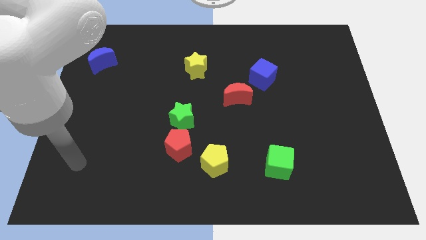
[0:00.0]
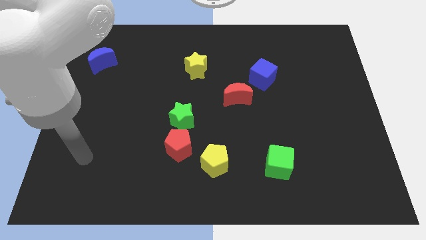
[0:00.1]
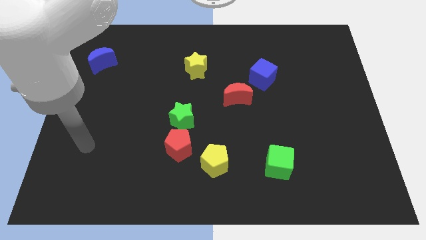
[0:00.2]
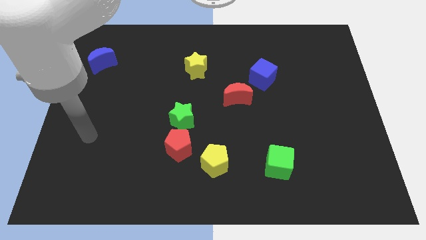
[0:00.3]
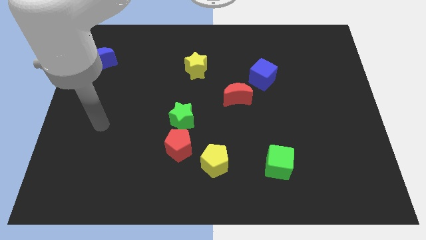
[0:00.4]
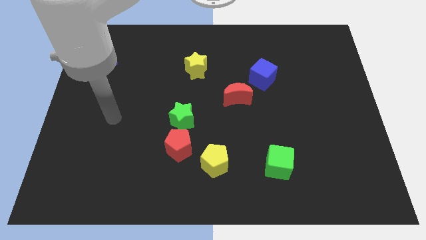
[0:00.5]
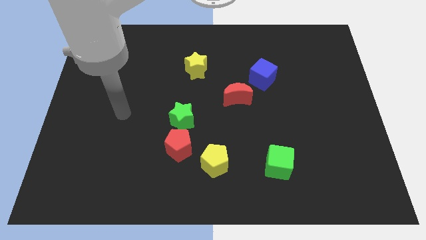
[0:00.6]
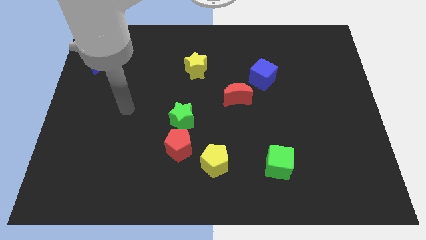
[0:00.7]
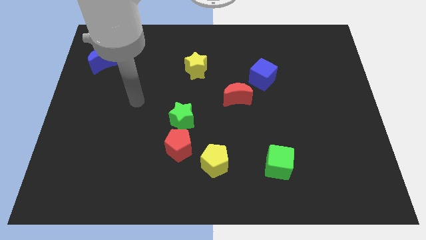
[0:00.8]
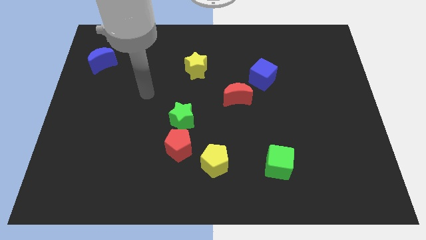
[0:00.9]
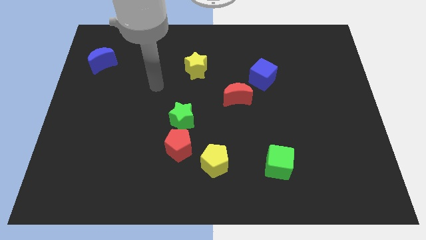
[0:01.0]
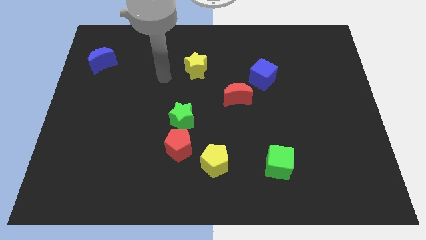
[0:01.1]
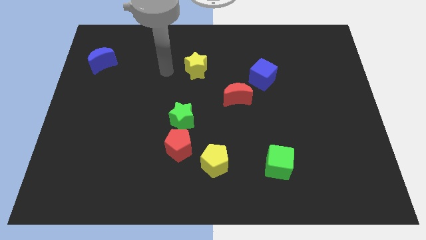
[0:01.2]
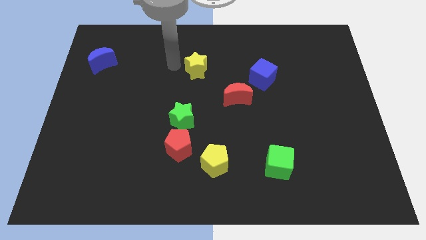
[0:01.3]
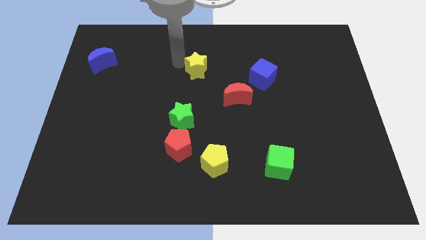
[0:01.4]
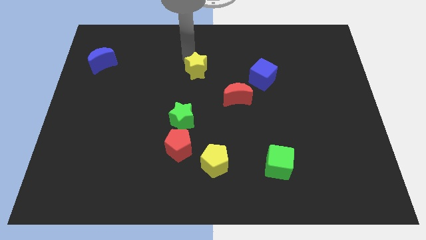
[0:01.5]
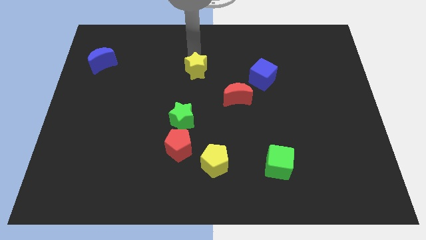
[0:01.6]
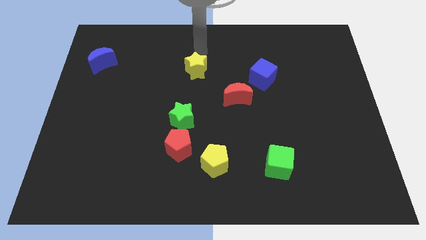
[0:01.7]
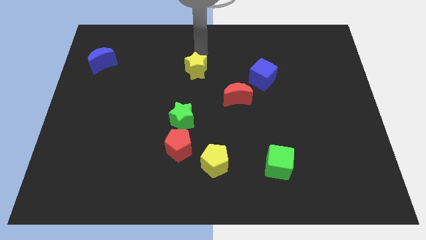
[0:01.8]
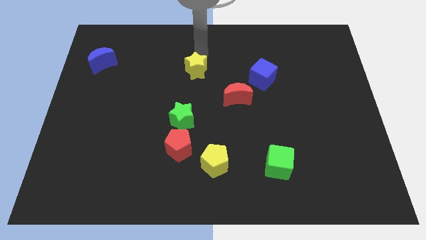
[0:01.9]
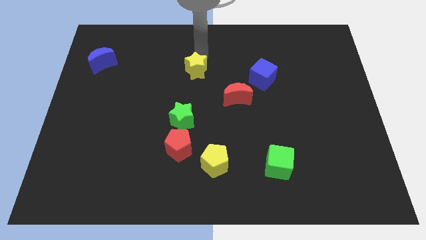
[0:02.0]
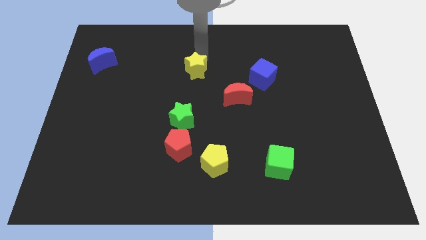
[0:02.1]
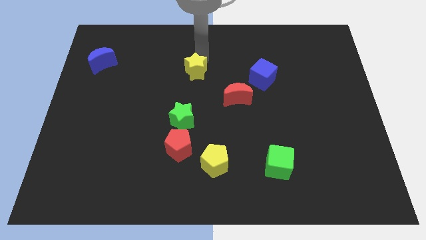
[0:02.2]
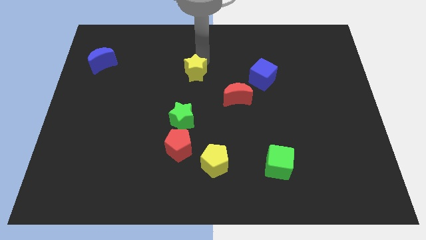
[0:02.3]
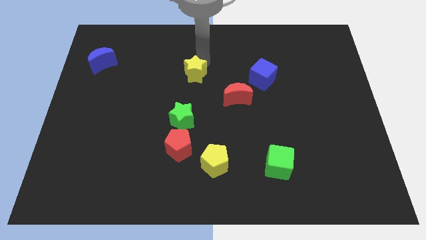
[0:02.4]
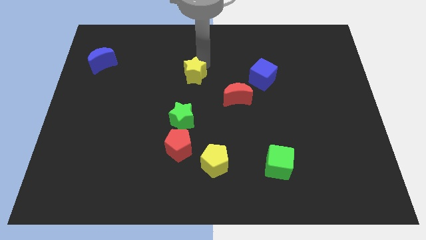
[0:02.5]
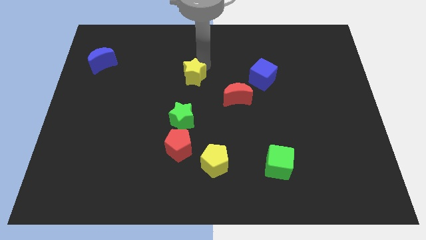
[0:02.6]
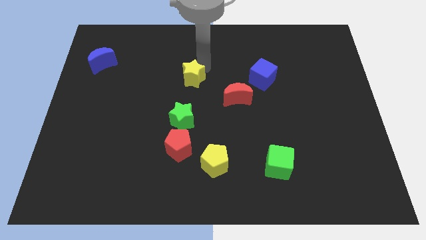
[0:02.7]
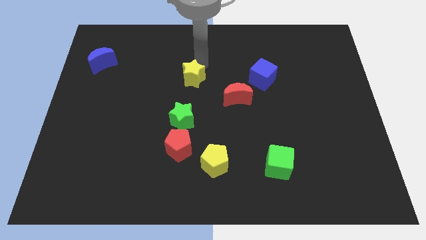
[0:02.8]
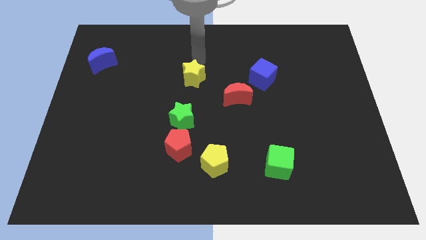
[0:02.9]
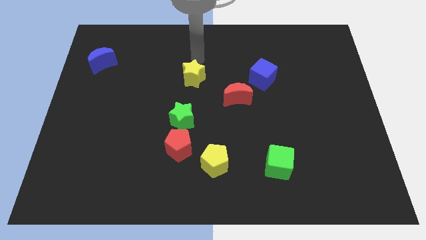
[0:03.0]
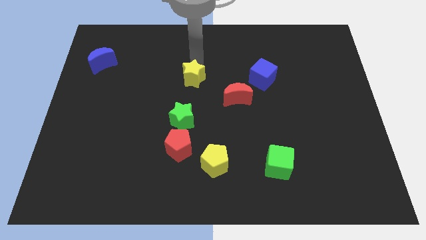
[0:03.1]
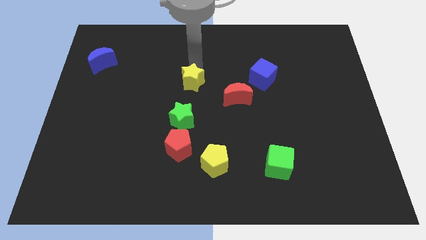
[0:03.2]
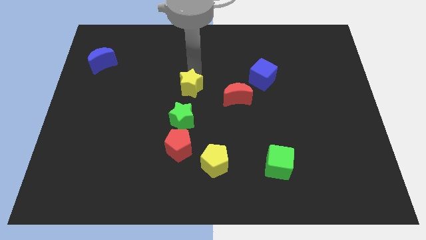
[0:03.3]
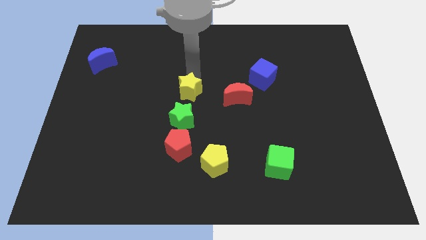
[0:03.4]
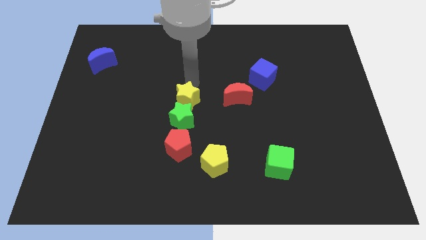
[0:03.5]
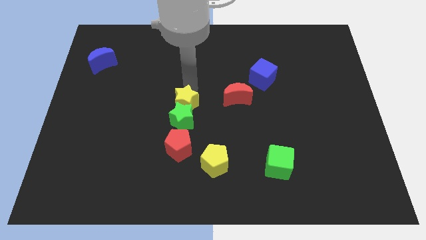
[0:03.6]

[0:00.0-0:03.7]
slide the yellow star close to the green star

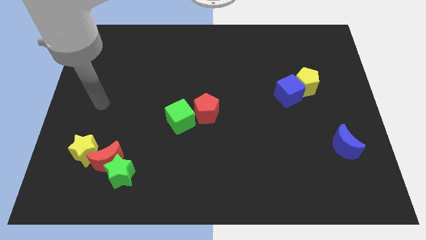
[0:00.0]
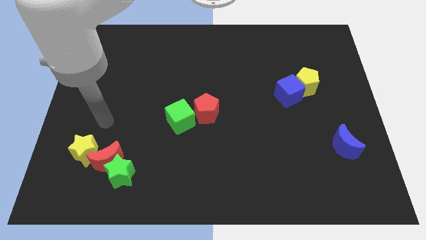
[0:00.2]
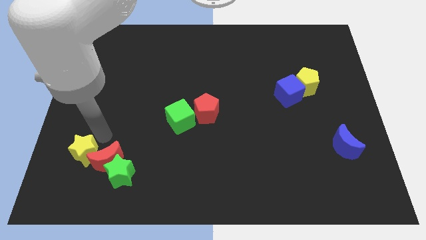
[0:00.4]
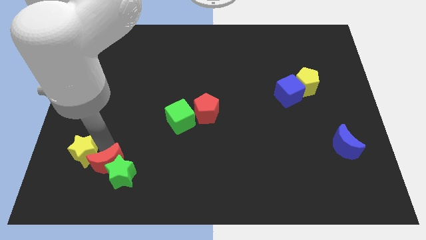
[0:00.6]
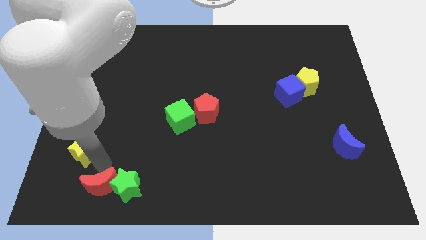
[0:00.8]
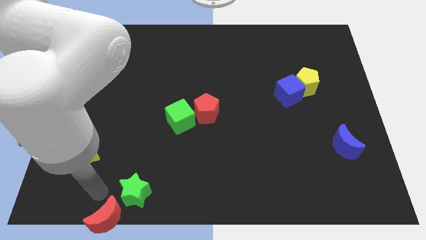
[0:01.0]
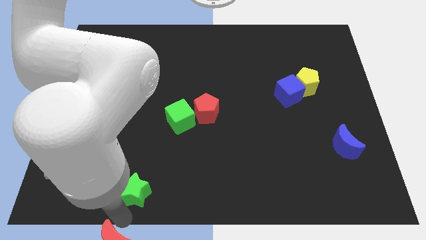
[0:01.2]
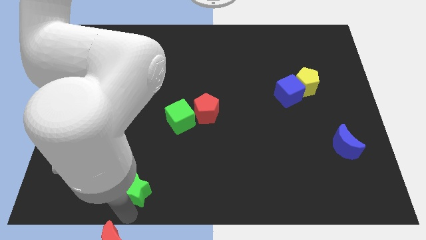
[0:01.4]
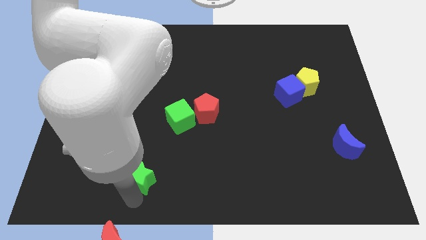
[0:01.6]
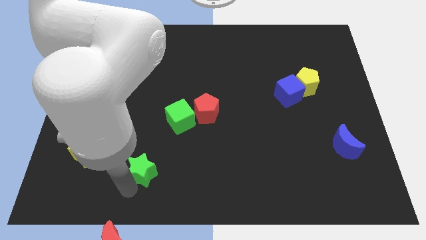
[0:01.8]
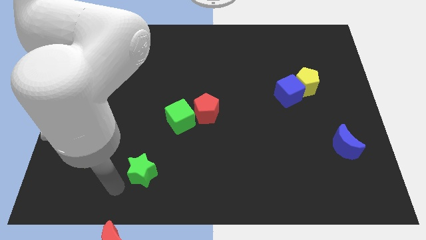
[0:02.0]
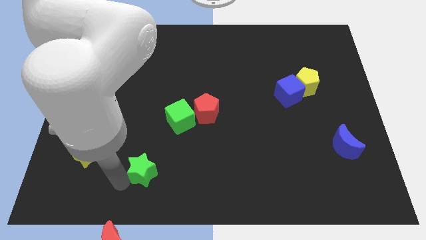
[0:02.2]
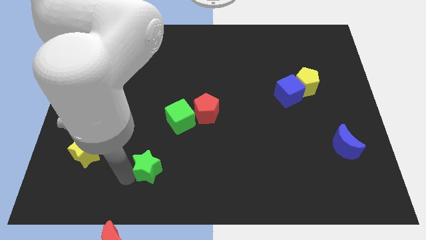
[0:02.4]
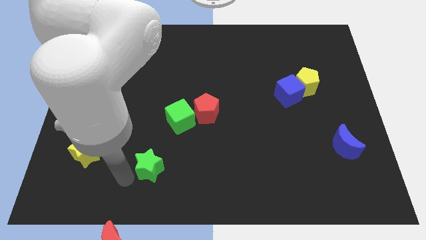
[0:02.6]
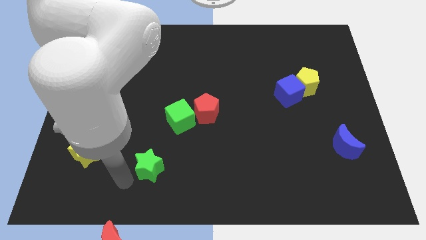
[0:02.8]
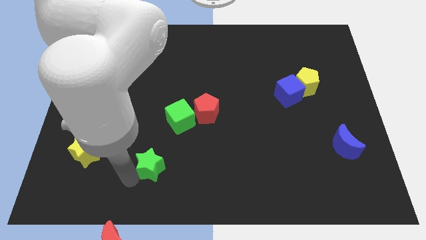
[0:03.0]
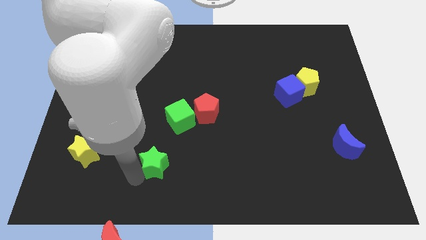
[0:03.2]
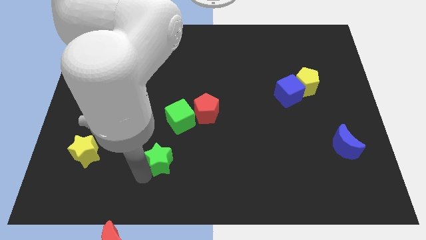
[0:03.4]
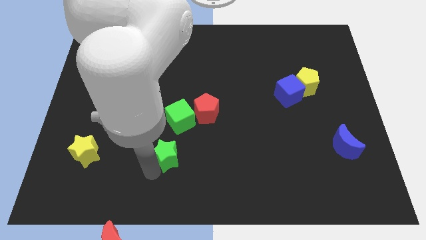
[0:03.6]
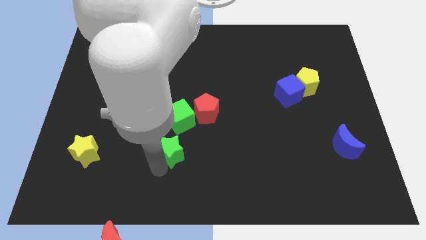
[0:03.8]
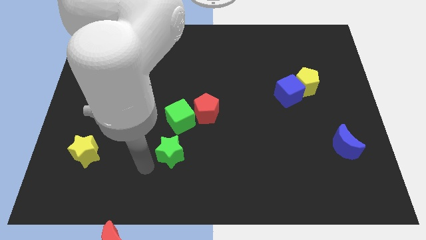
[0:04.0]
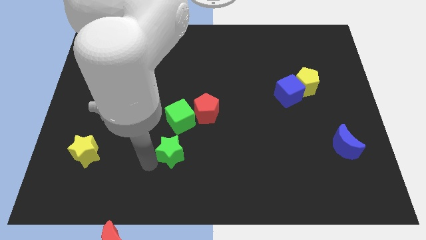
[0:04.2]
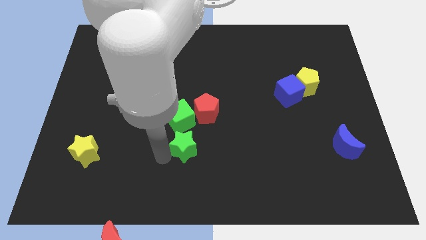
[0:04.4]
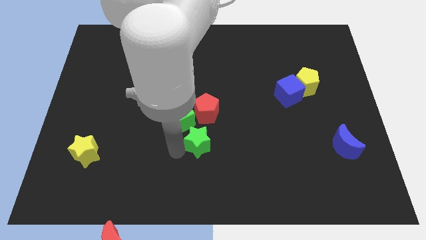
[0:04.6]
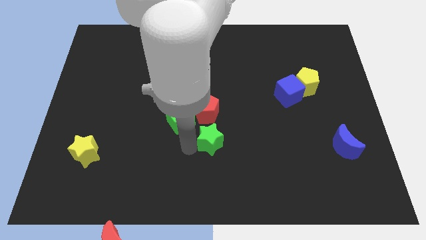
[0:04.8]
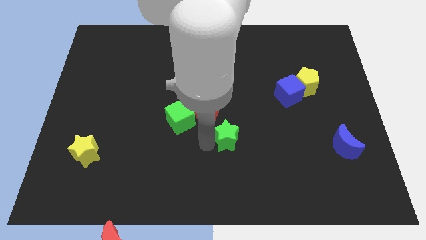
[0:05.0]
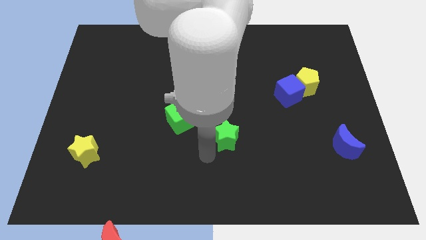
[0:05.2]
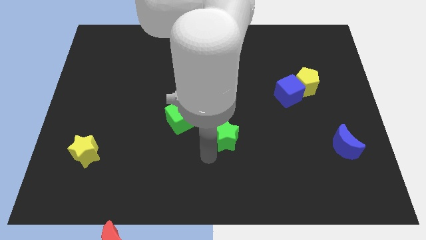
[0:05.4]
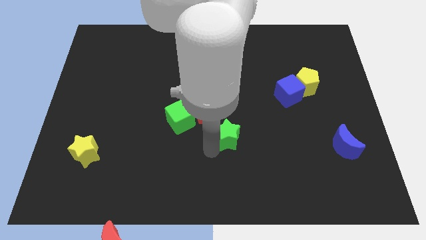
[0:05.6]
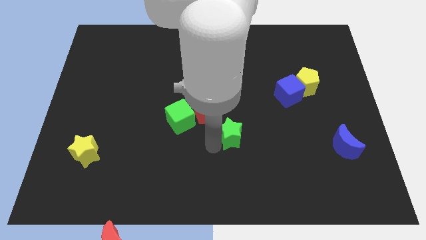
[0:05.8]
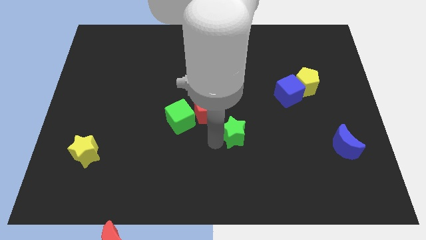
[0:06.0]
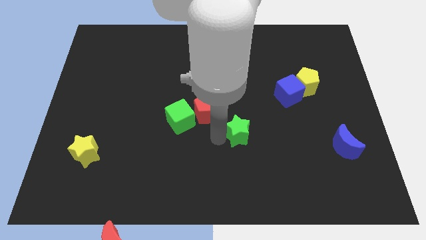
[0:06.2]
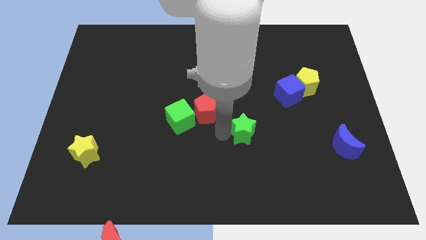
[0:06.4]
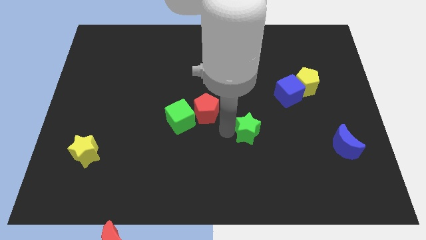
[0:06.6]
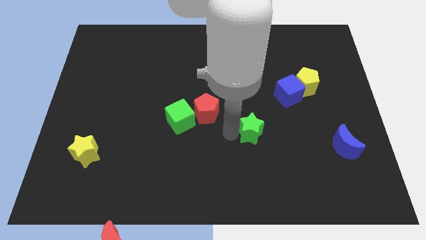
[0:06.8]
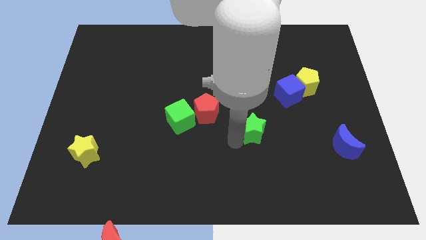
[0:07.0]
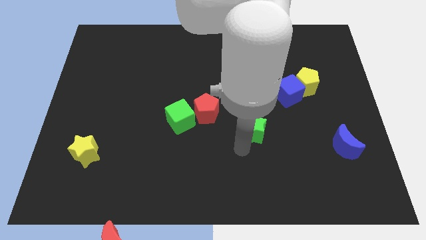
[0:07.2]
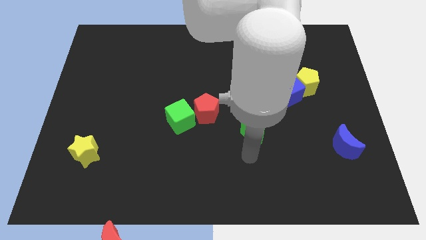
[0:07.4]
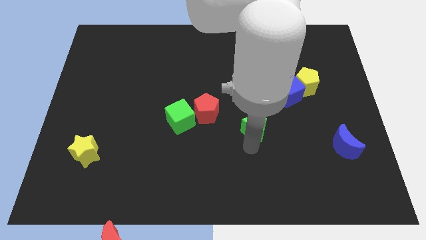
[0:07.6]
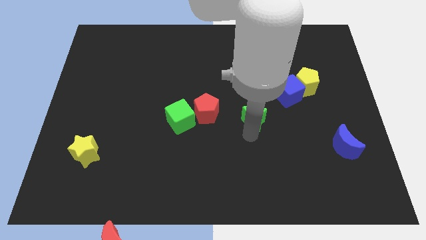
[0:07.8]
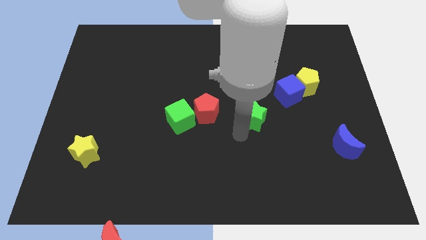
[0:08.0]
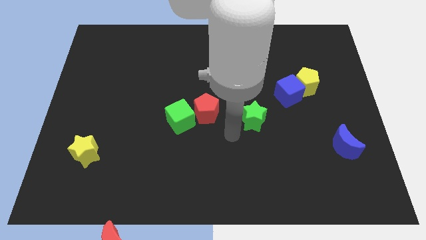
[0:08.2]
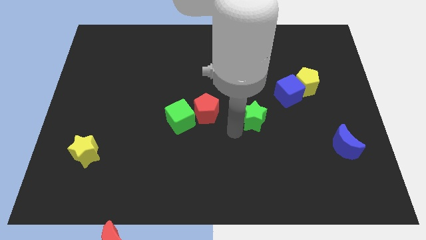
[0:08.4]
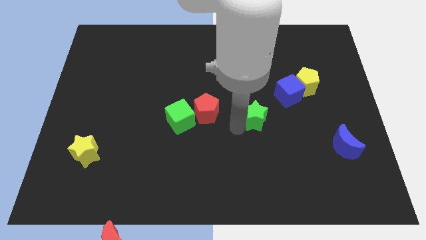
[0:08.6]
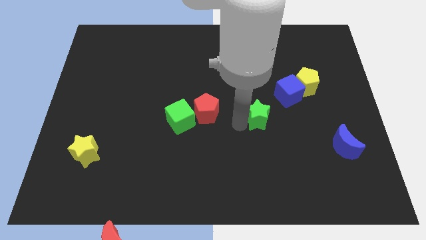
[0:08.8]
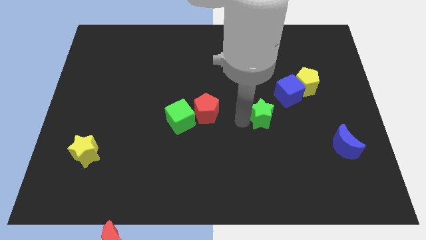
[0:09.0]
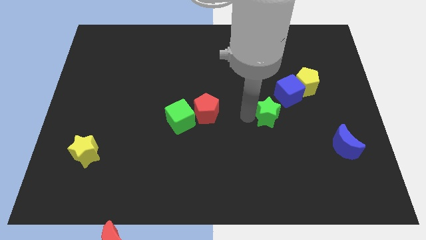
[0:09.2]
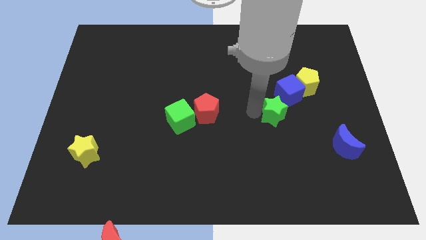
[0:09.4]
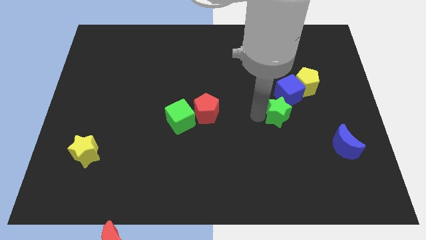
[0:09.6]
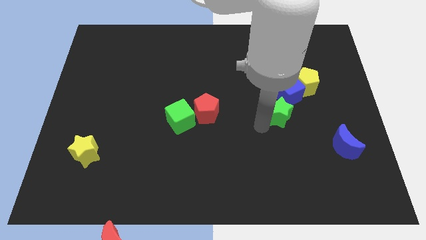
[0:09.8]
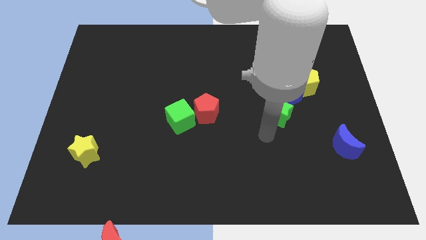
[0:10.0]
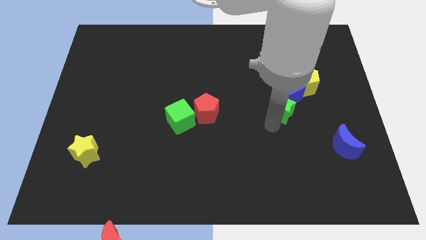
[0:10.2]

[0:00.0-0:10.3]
push the green star close to the blue cube
